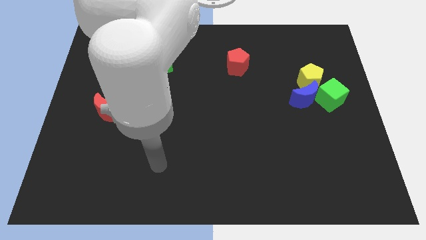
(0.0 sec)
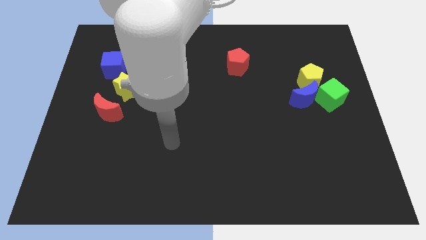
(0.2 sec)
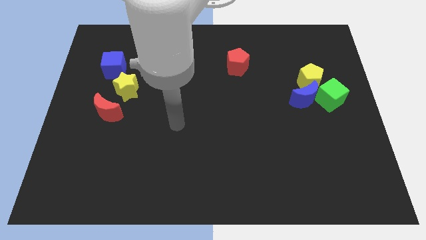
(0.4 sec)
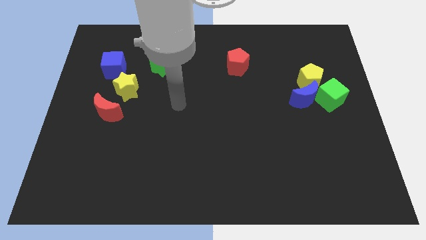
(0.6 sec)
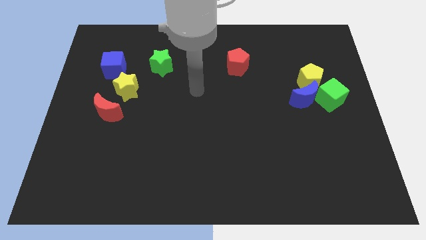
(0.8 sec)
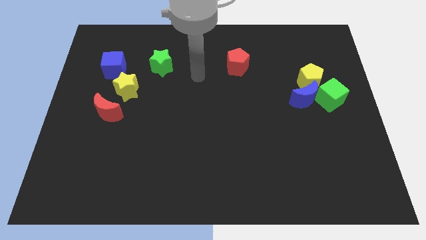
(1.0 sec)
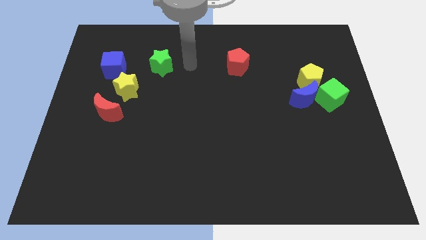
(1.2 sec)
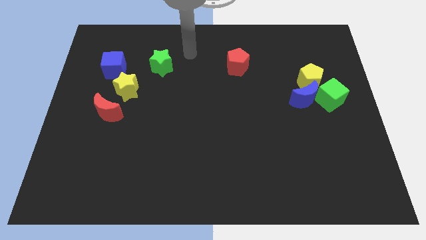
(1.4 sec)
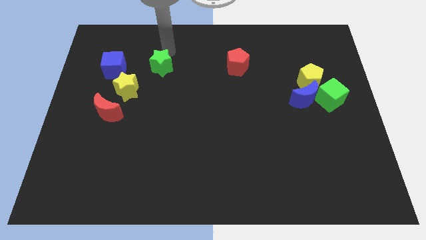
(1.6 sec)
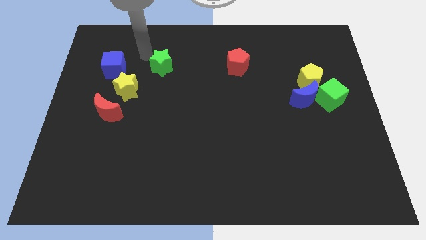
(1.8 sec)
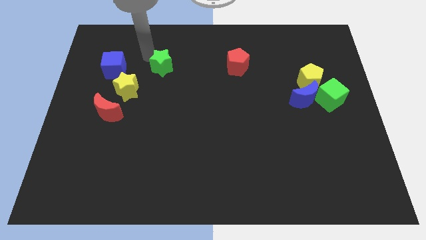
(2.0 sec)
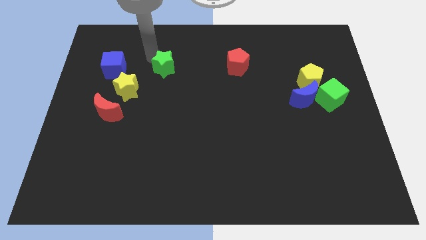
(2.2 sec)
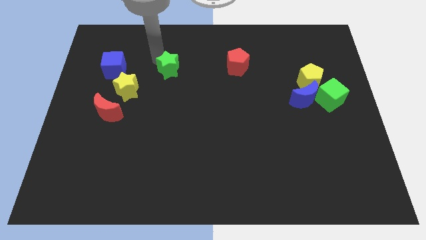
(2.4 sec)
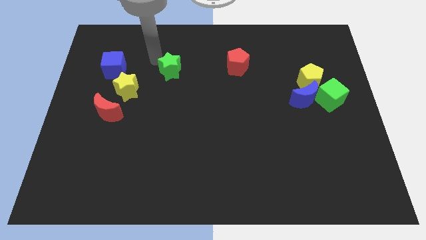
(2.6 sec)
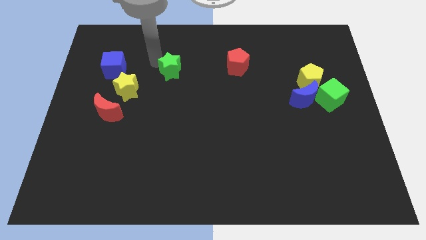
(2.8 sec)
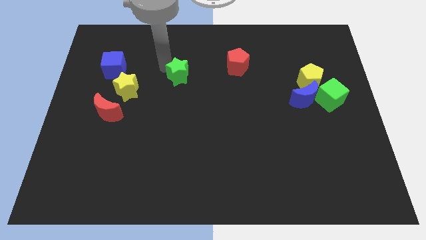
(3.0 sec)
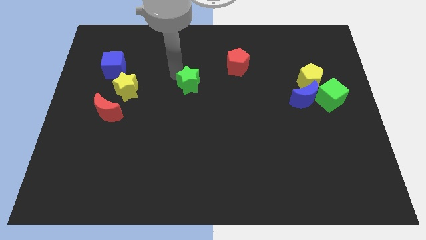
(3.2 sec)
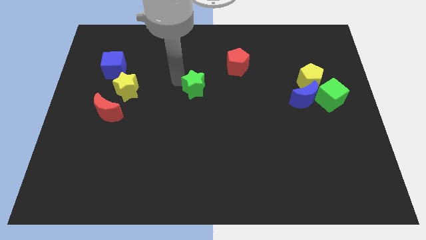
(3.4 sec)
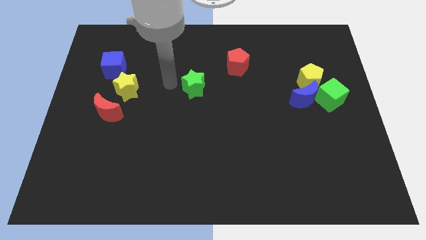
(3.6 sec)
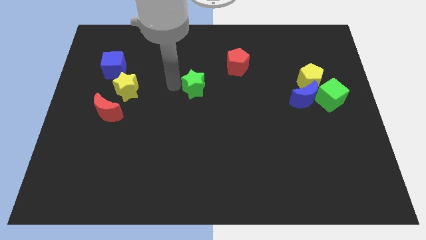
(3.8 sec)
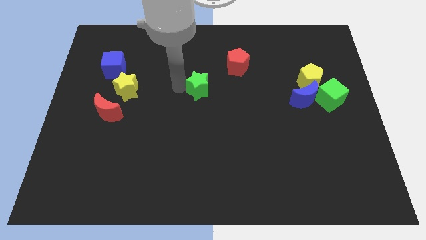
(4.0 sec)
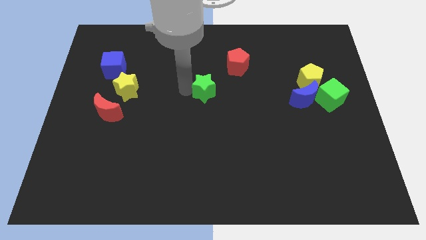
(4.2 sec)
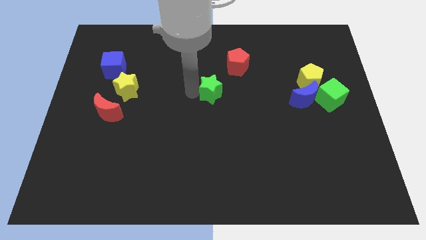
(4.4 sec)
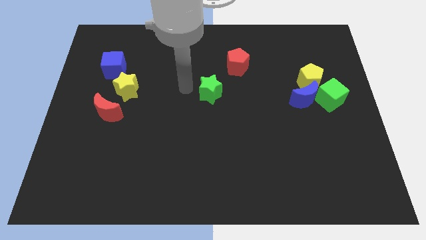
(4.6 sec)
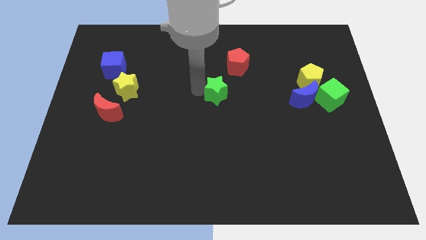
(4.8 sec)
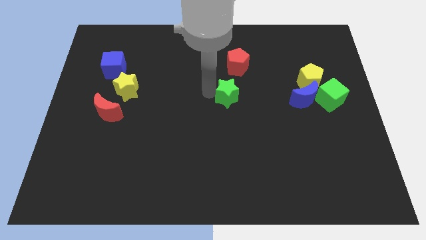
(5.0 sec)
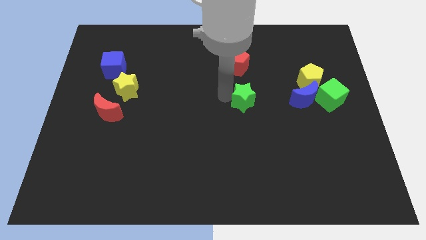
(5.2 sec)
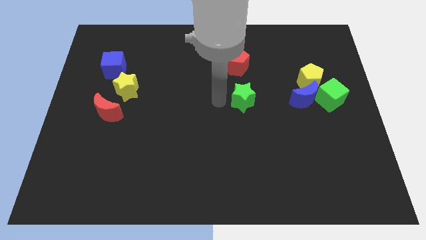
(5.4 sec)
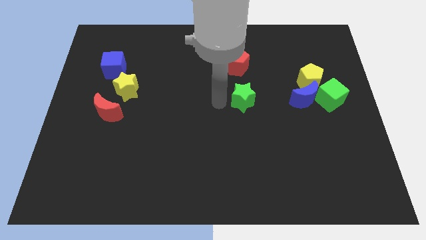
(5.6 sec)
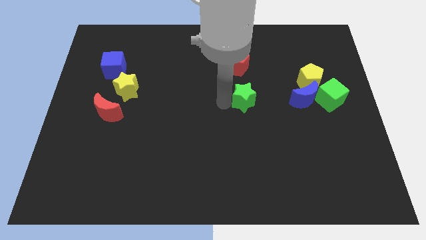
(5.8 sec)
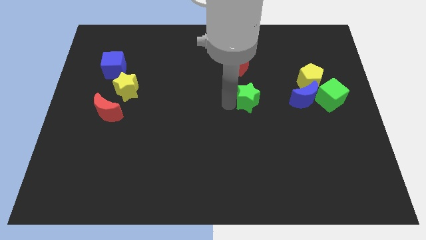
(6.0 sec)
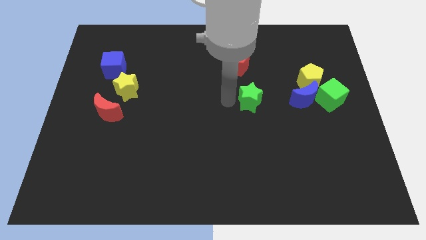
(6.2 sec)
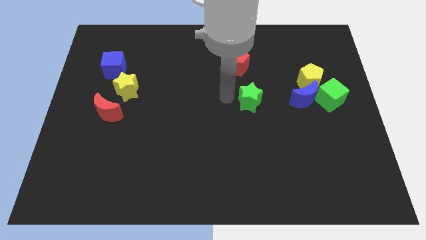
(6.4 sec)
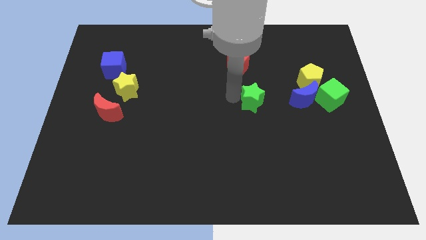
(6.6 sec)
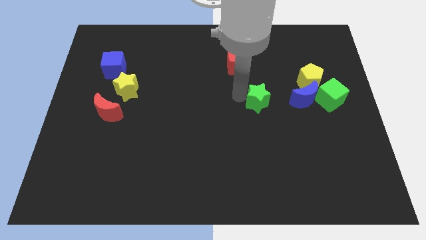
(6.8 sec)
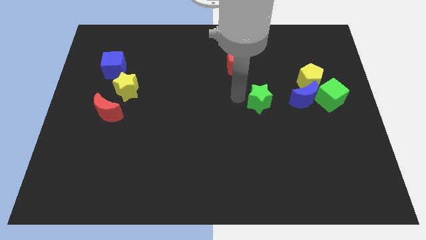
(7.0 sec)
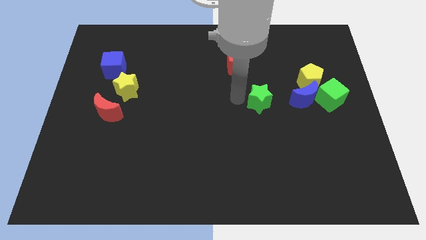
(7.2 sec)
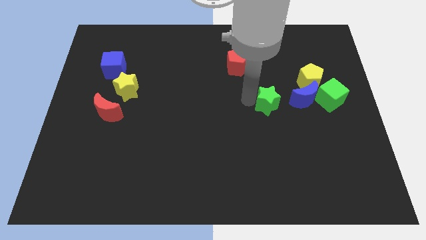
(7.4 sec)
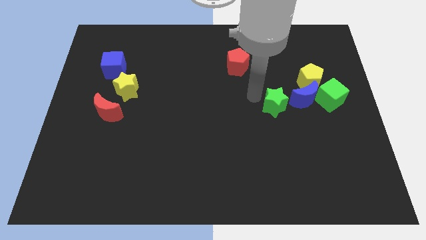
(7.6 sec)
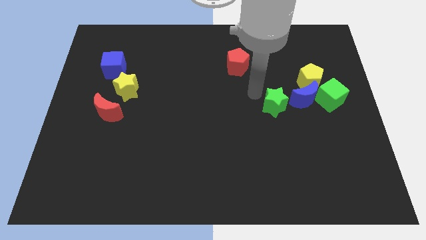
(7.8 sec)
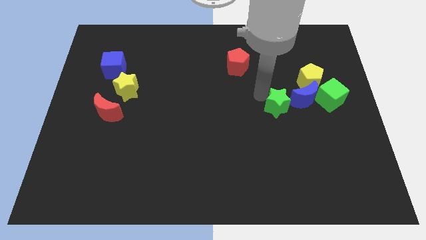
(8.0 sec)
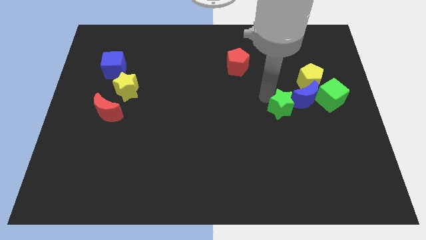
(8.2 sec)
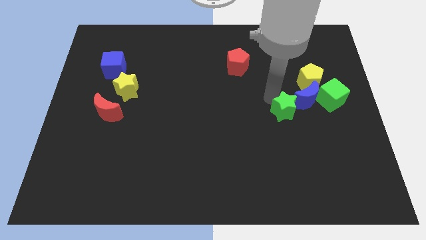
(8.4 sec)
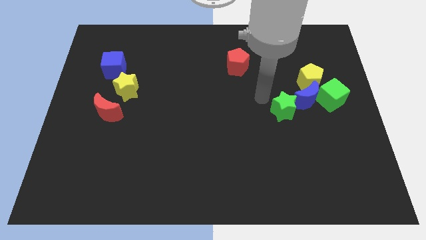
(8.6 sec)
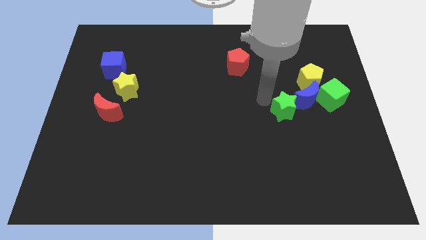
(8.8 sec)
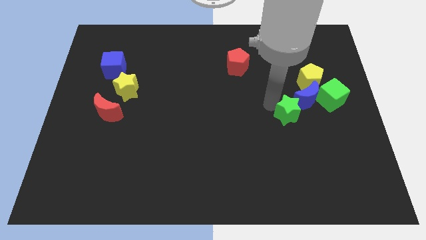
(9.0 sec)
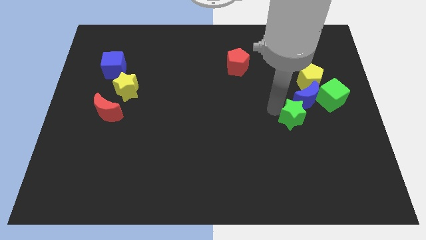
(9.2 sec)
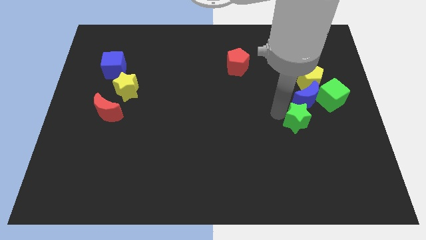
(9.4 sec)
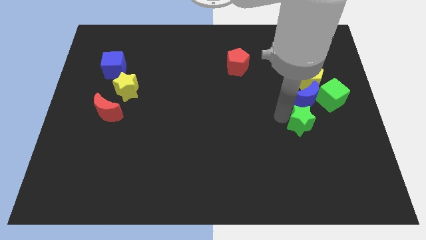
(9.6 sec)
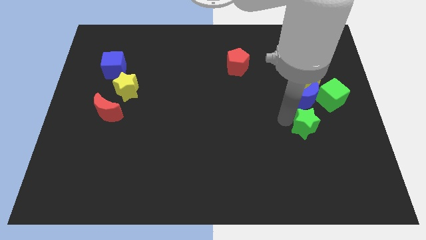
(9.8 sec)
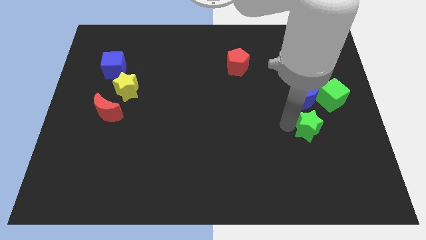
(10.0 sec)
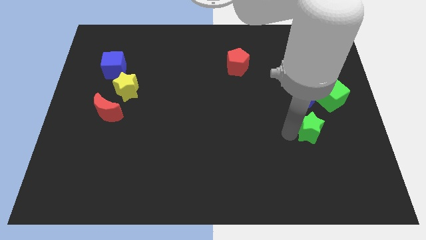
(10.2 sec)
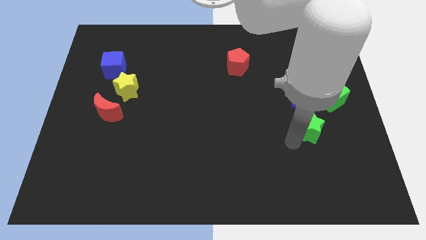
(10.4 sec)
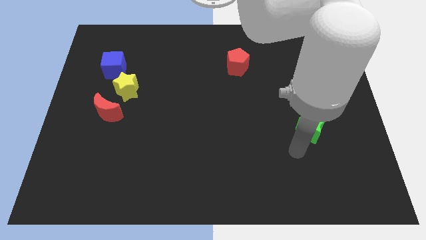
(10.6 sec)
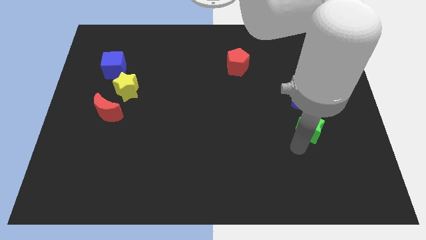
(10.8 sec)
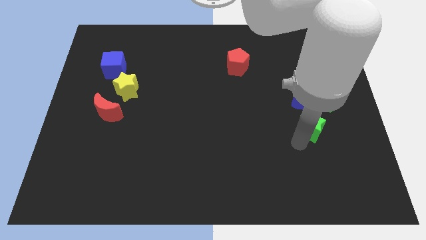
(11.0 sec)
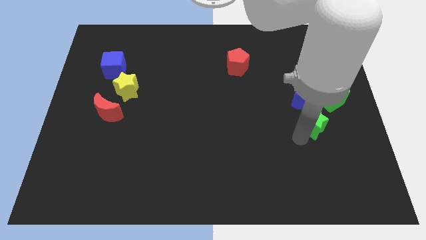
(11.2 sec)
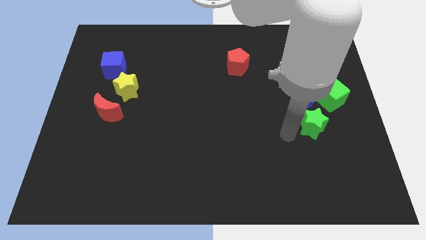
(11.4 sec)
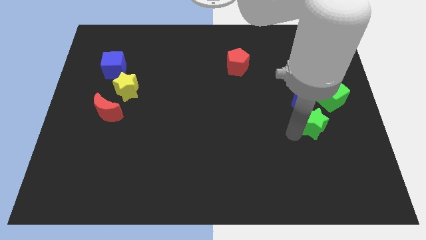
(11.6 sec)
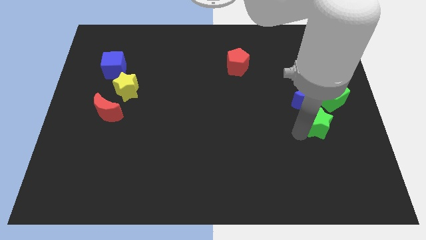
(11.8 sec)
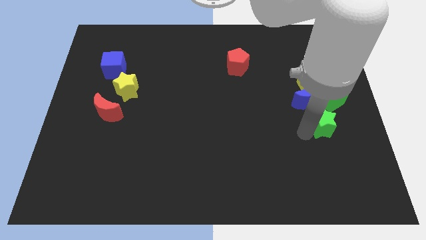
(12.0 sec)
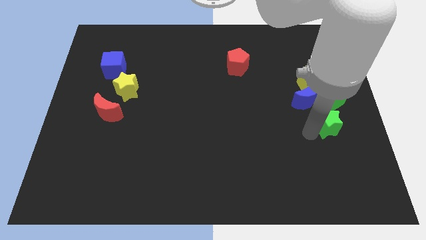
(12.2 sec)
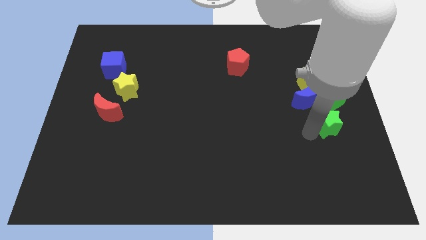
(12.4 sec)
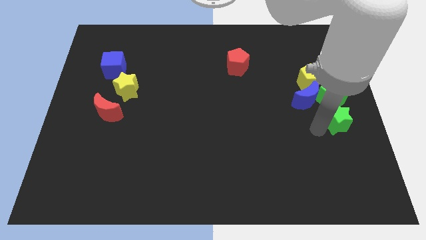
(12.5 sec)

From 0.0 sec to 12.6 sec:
put the green star to the center right
